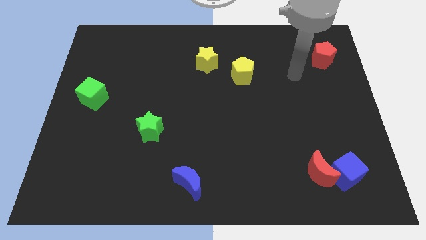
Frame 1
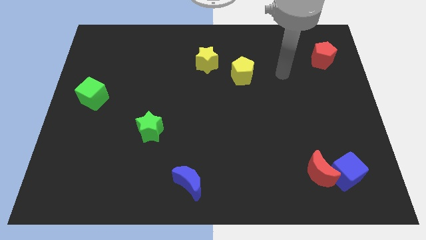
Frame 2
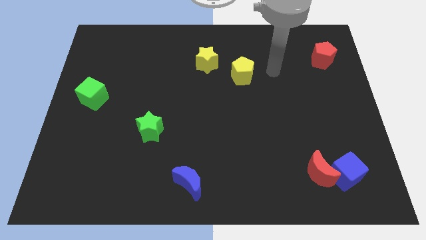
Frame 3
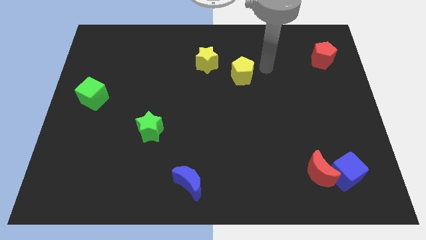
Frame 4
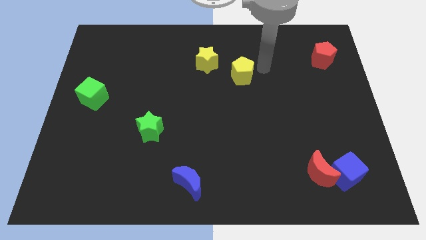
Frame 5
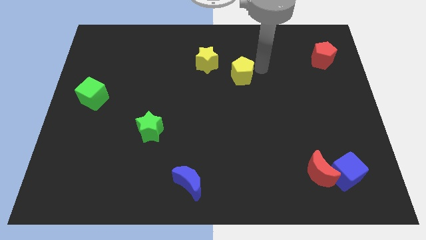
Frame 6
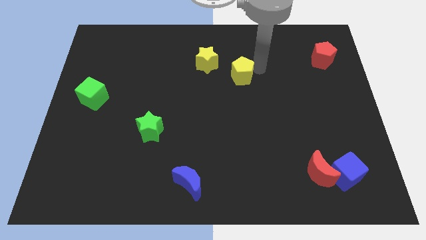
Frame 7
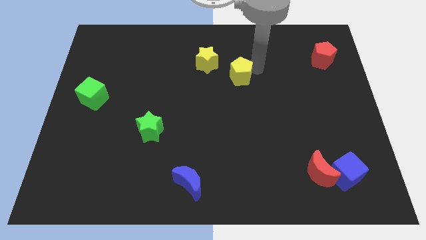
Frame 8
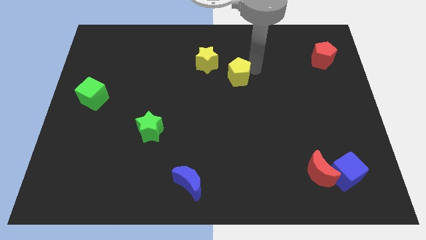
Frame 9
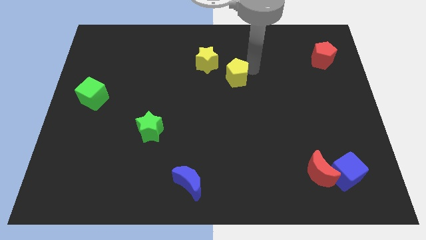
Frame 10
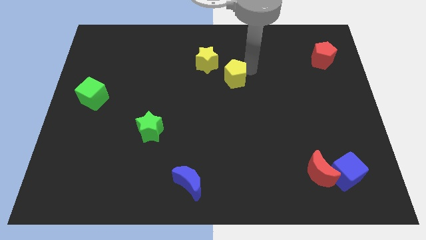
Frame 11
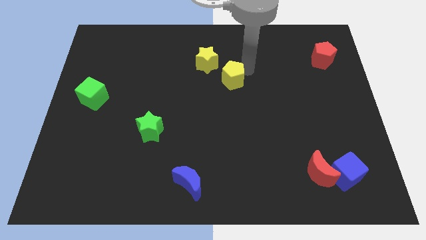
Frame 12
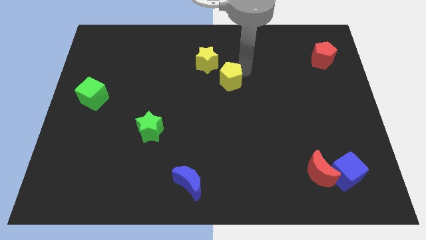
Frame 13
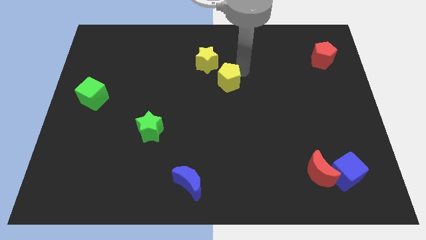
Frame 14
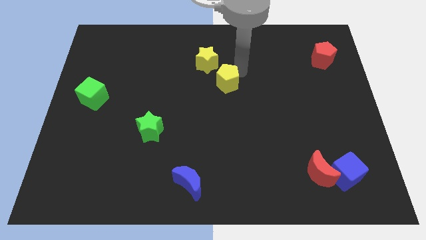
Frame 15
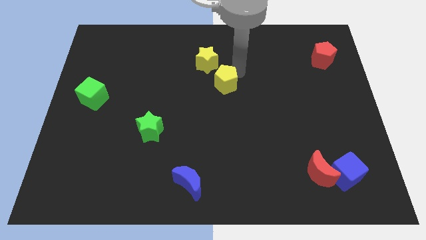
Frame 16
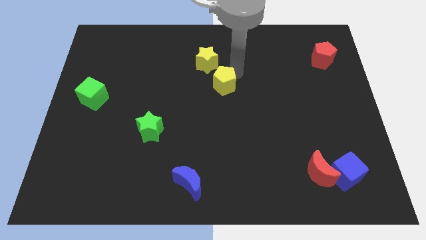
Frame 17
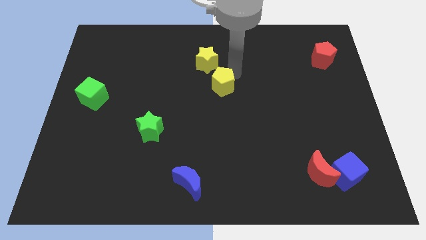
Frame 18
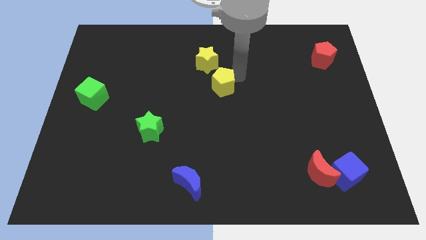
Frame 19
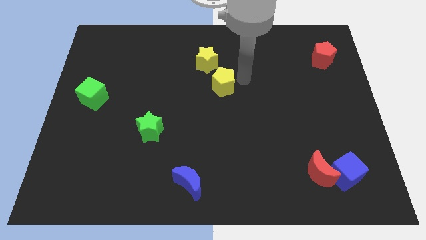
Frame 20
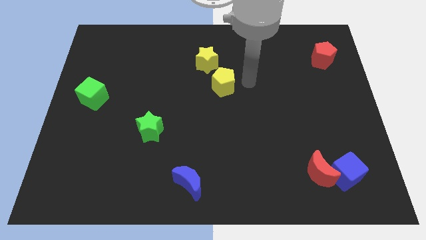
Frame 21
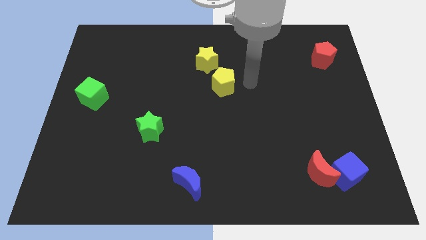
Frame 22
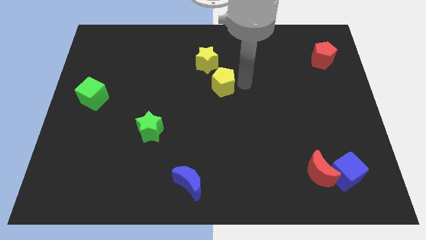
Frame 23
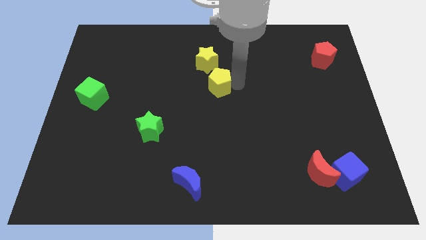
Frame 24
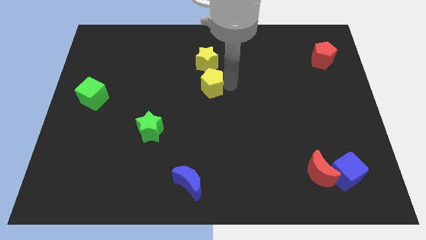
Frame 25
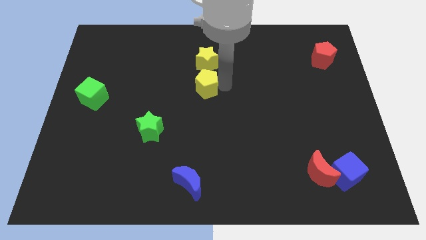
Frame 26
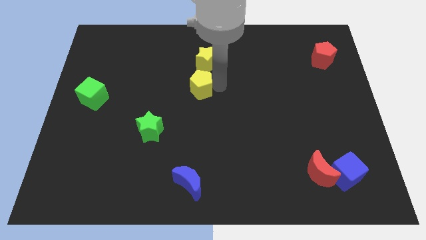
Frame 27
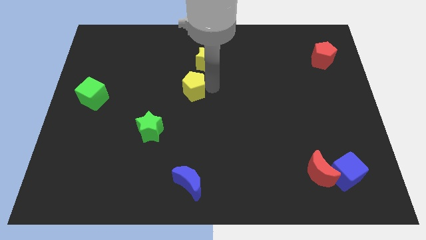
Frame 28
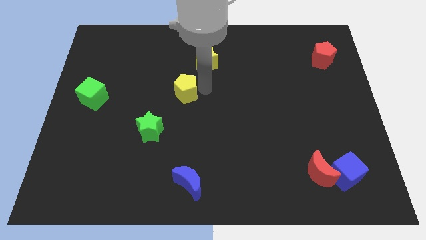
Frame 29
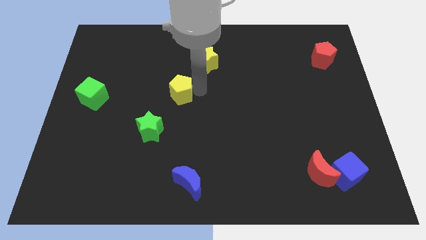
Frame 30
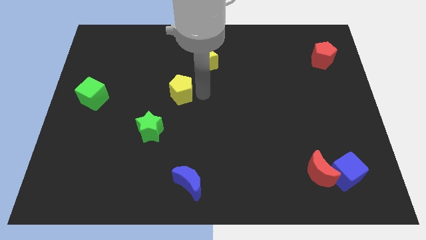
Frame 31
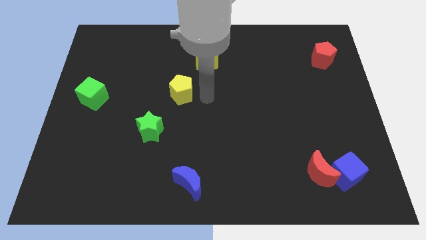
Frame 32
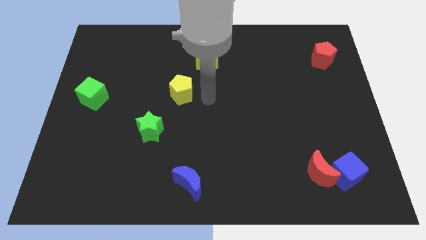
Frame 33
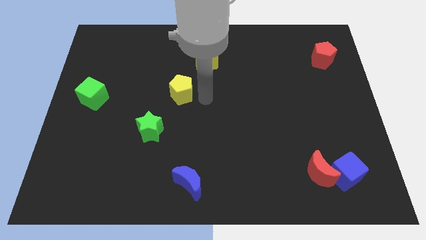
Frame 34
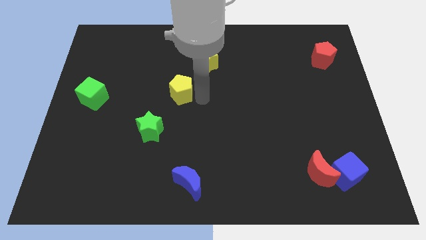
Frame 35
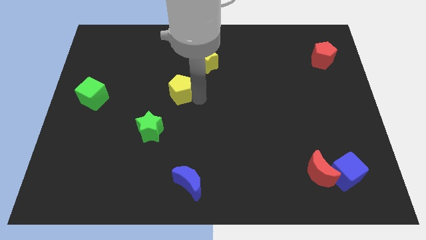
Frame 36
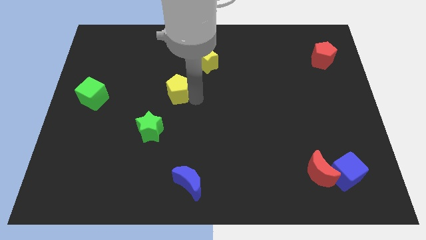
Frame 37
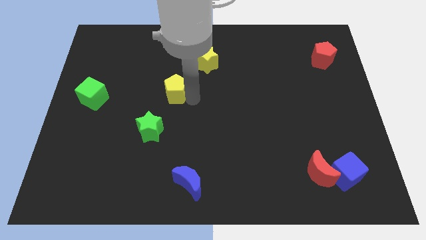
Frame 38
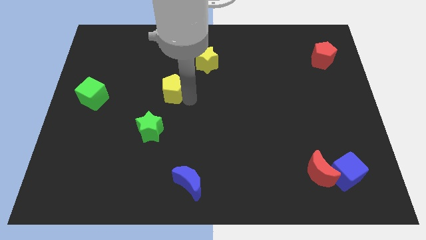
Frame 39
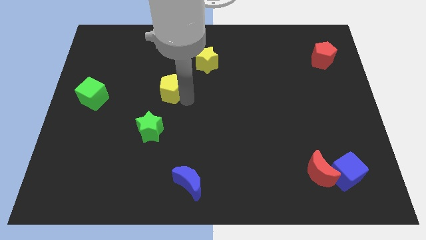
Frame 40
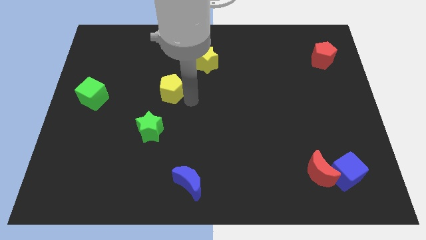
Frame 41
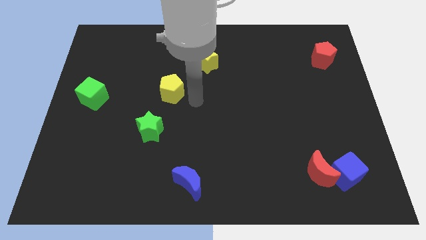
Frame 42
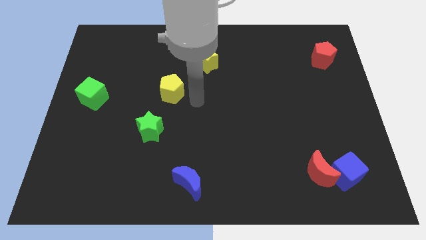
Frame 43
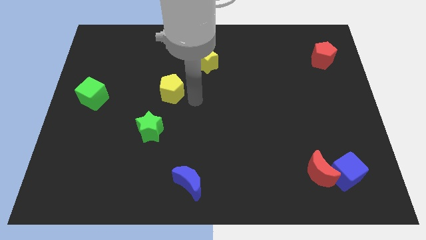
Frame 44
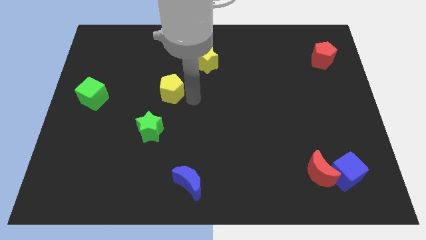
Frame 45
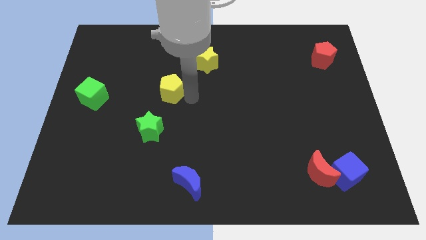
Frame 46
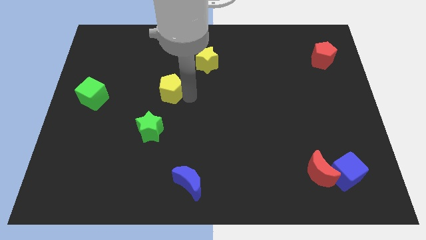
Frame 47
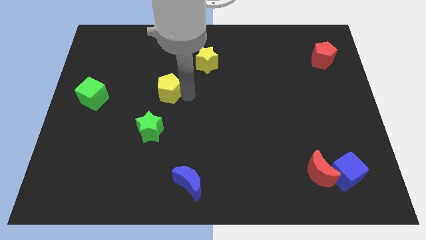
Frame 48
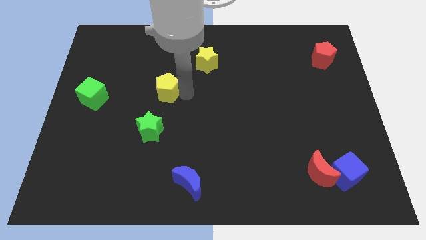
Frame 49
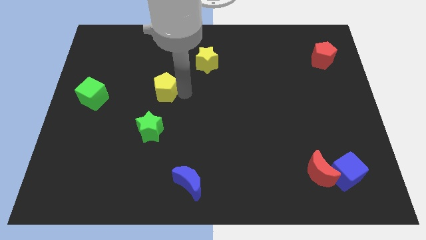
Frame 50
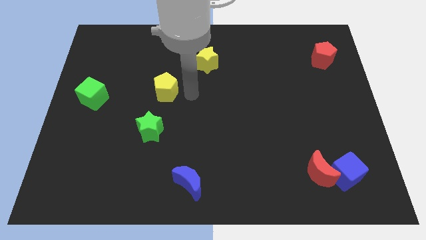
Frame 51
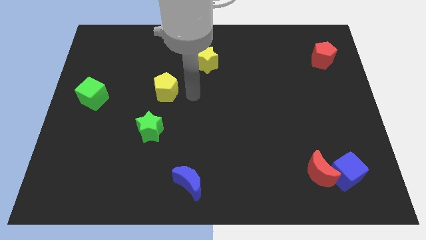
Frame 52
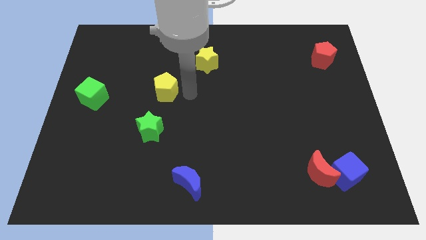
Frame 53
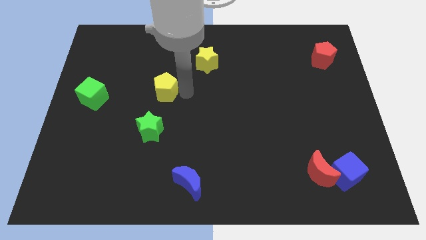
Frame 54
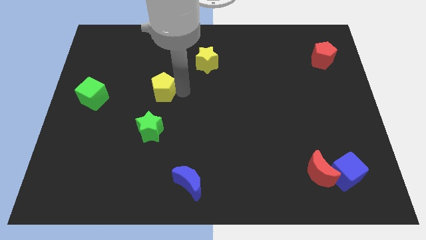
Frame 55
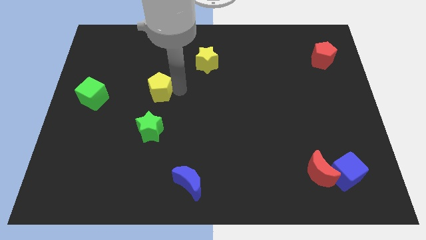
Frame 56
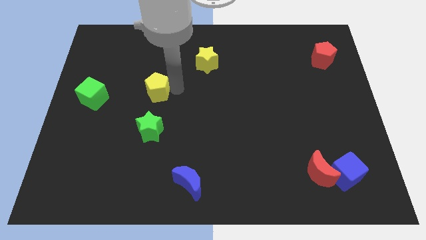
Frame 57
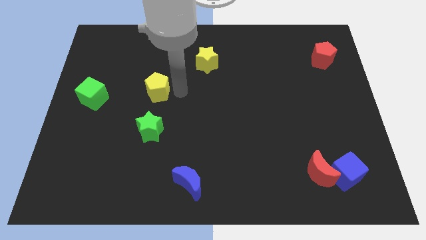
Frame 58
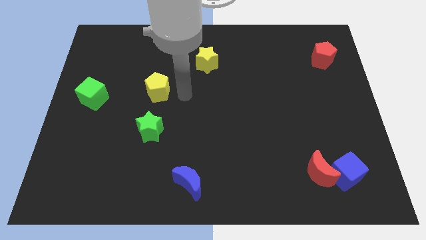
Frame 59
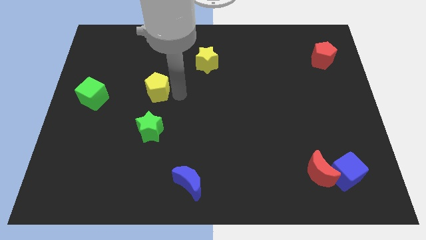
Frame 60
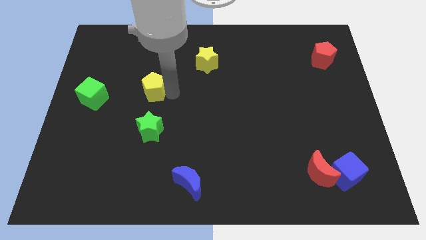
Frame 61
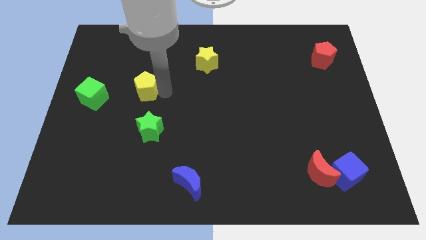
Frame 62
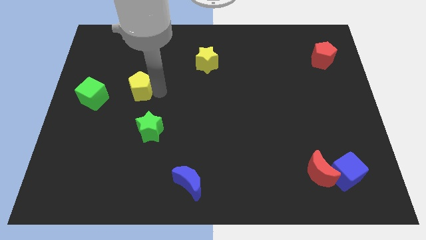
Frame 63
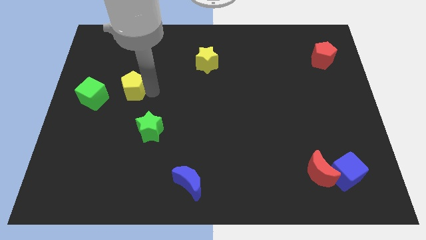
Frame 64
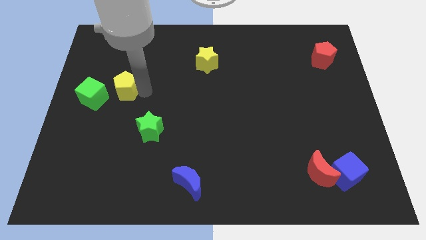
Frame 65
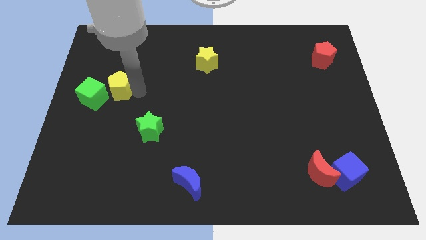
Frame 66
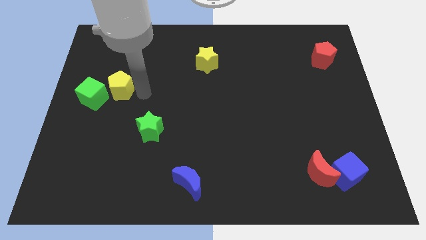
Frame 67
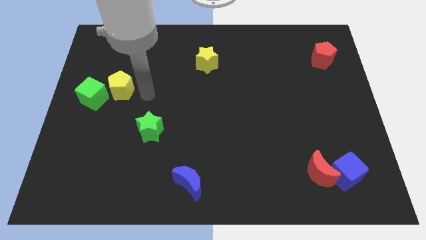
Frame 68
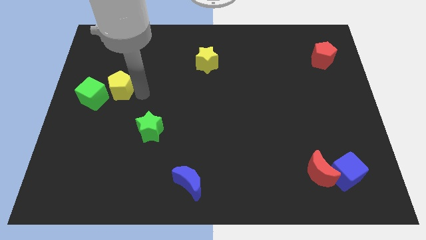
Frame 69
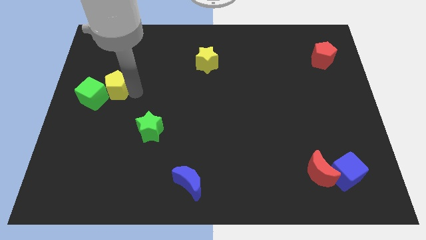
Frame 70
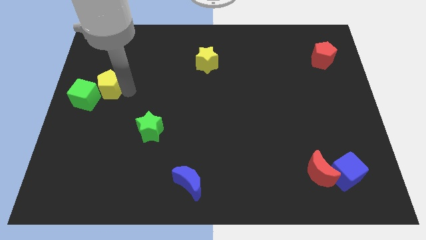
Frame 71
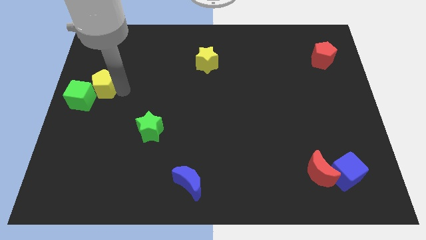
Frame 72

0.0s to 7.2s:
put the yellow pentagon to the left side
